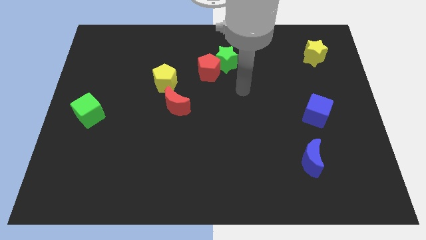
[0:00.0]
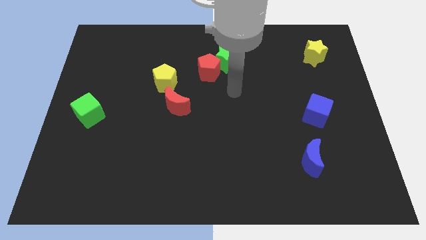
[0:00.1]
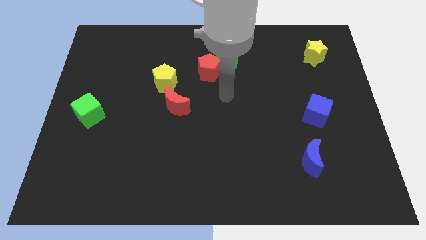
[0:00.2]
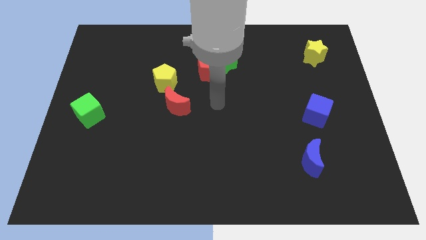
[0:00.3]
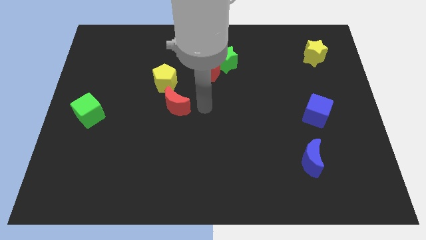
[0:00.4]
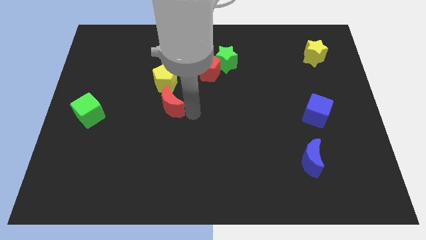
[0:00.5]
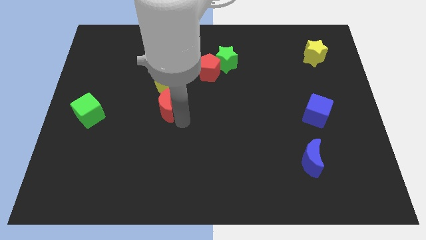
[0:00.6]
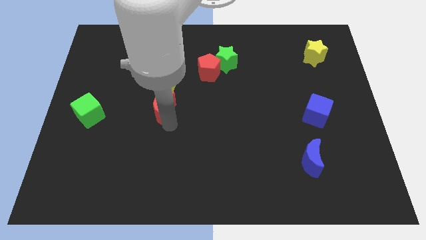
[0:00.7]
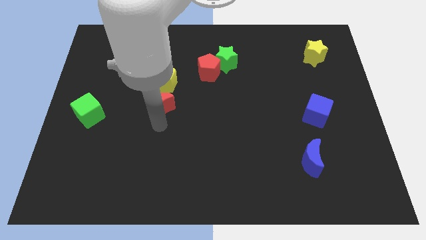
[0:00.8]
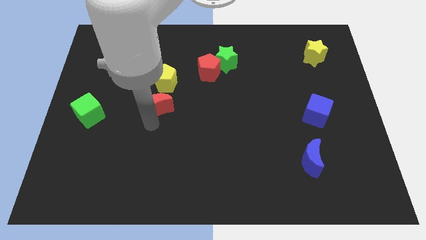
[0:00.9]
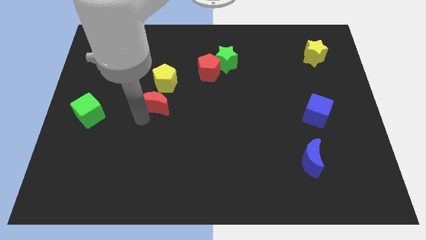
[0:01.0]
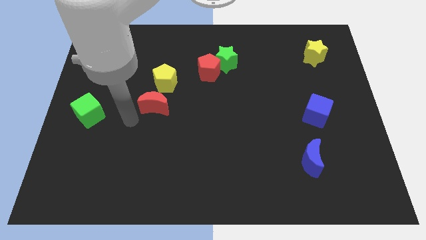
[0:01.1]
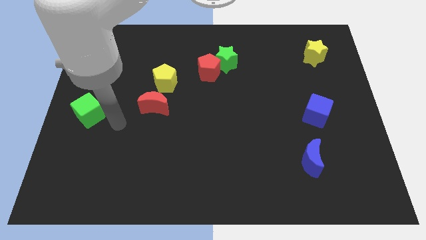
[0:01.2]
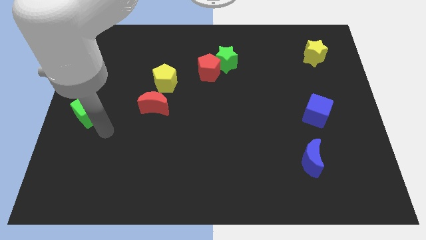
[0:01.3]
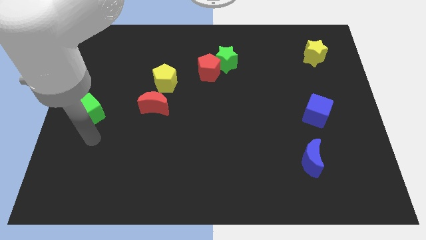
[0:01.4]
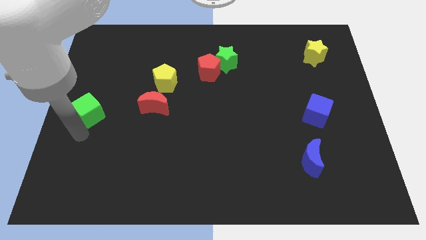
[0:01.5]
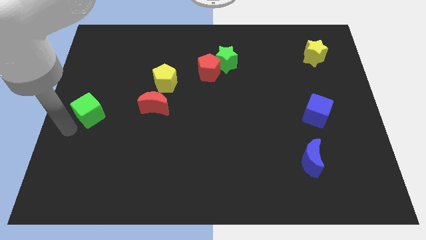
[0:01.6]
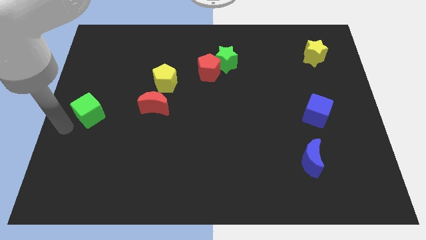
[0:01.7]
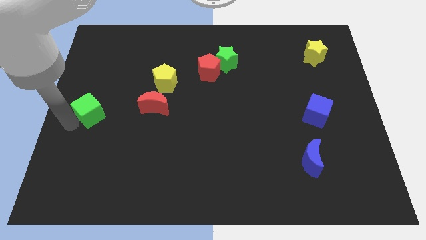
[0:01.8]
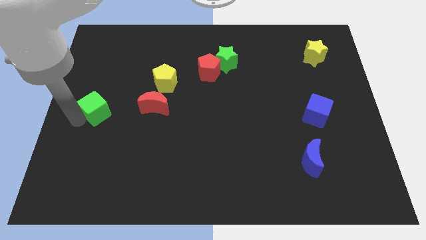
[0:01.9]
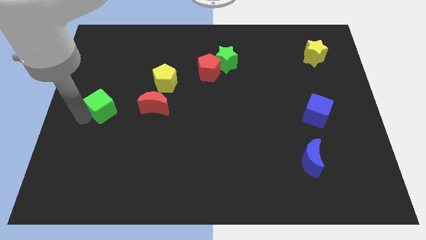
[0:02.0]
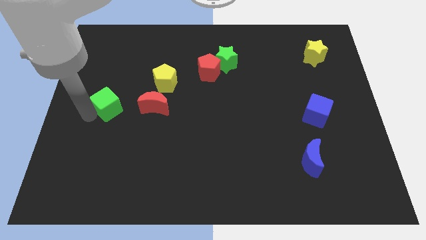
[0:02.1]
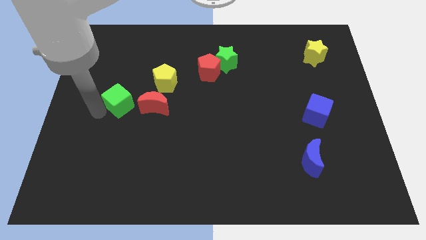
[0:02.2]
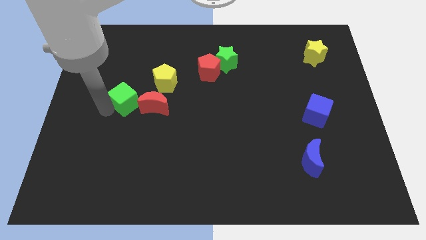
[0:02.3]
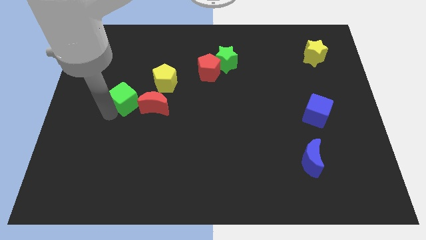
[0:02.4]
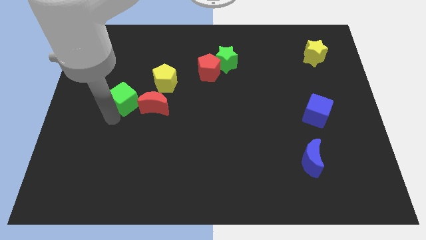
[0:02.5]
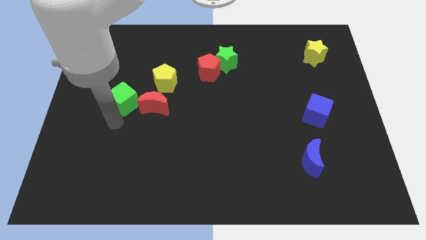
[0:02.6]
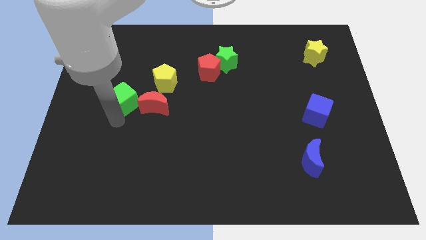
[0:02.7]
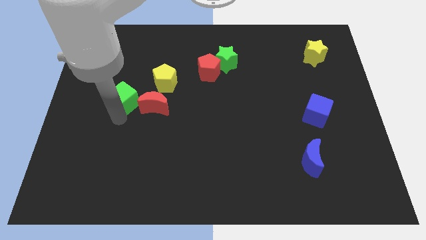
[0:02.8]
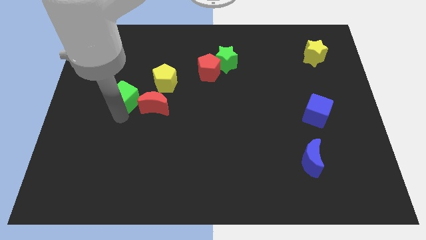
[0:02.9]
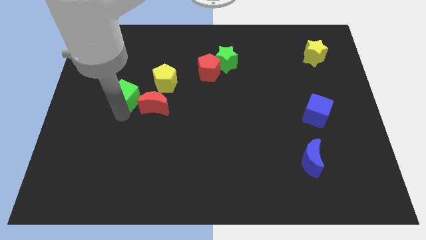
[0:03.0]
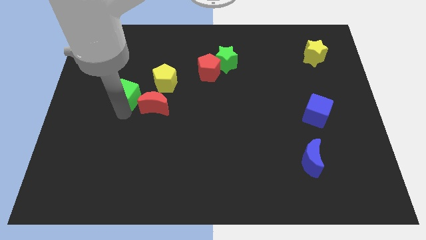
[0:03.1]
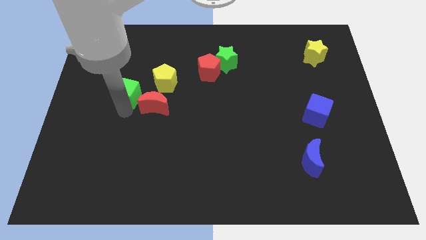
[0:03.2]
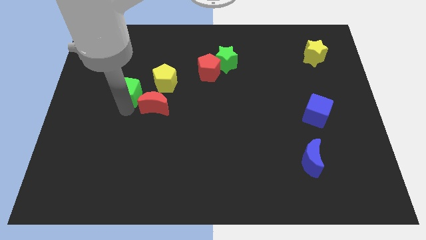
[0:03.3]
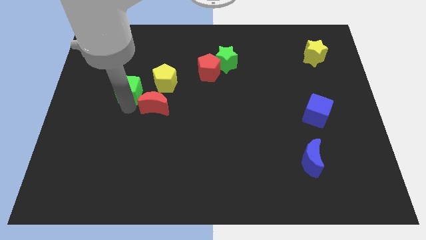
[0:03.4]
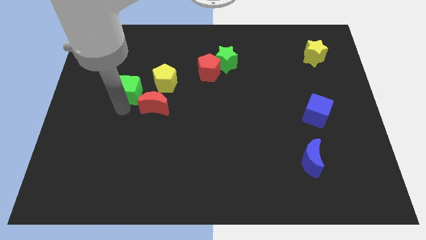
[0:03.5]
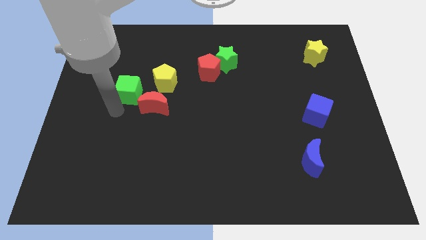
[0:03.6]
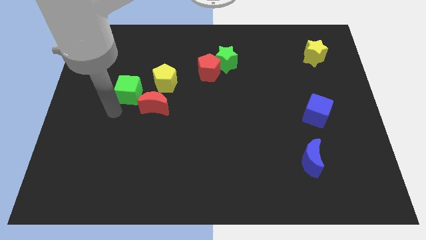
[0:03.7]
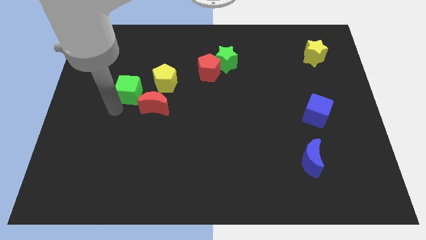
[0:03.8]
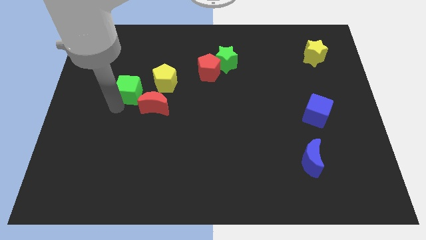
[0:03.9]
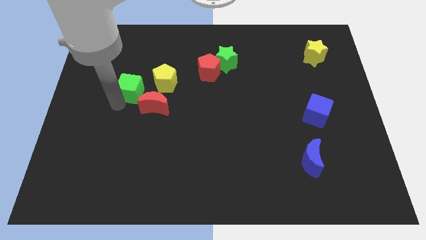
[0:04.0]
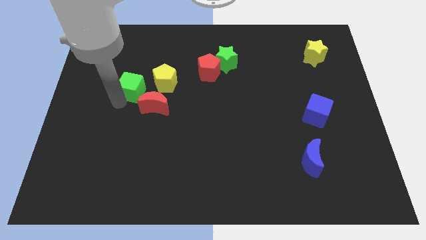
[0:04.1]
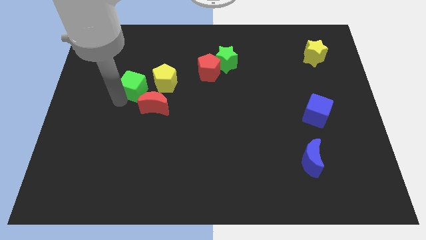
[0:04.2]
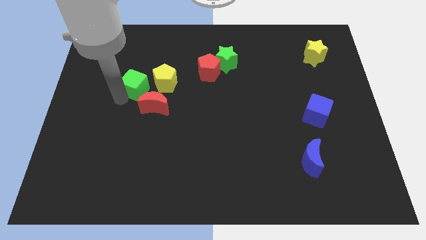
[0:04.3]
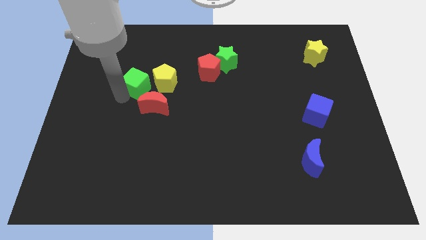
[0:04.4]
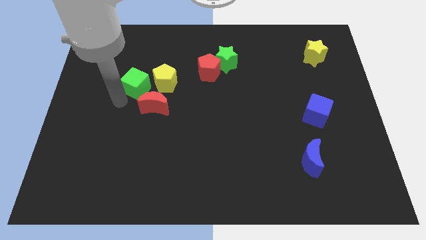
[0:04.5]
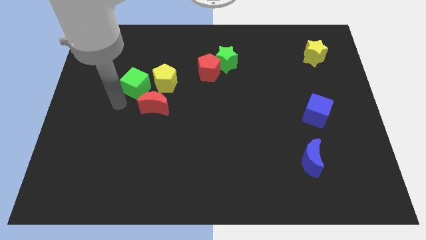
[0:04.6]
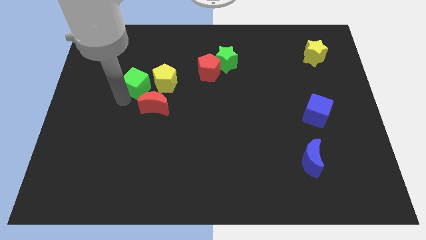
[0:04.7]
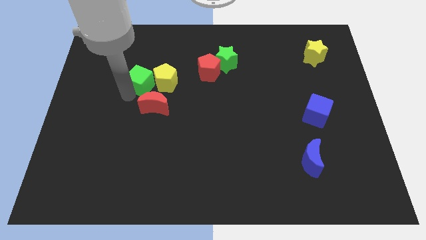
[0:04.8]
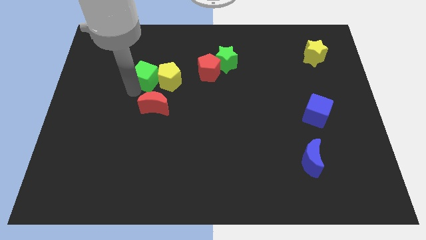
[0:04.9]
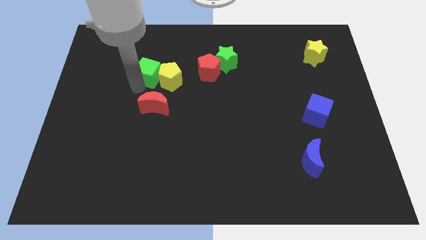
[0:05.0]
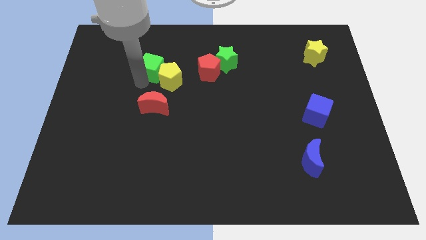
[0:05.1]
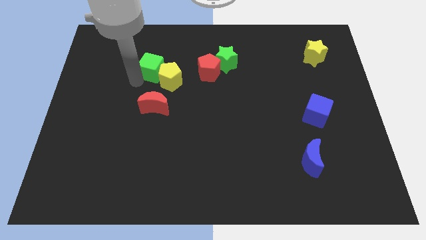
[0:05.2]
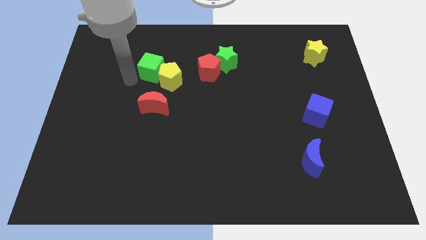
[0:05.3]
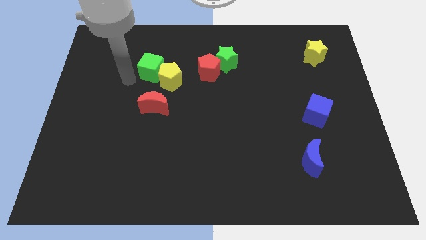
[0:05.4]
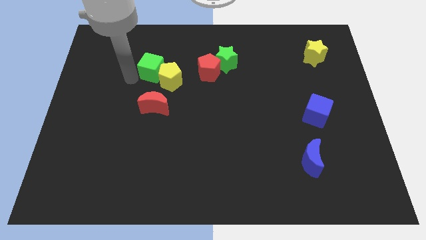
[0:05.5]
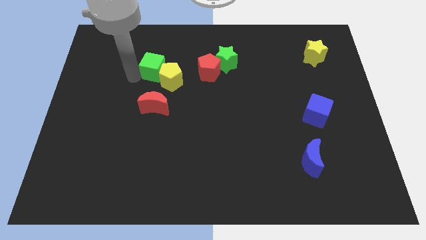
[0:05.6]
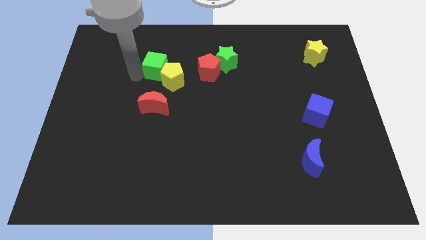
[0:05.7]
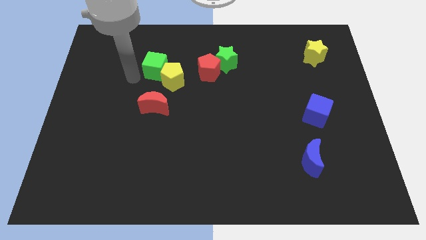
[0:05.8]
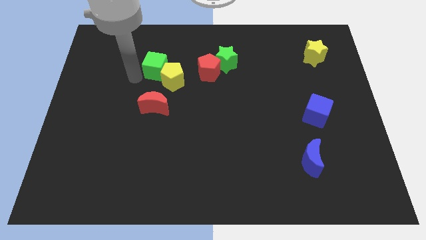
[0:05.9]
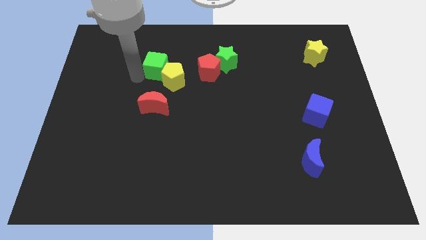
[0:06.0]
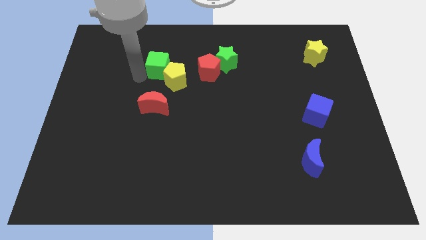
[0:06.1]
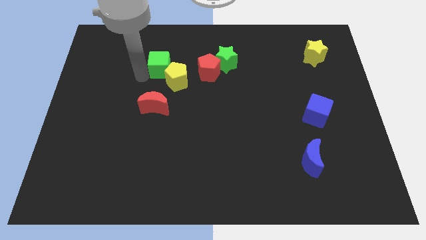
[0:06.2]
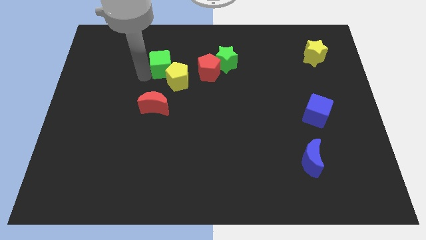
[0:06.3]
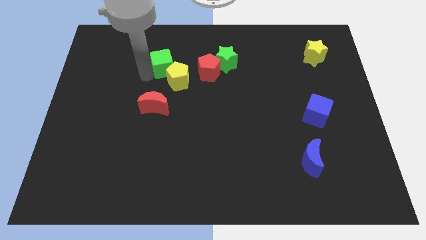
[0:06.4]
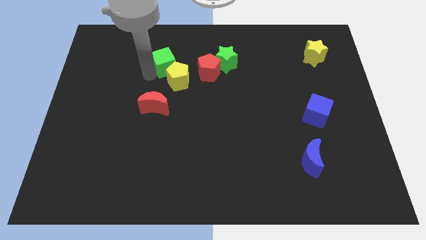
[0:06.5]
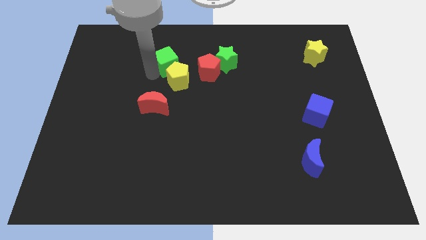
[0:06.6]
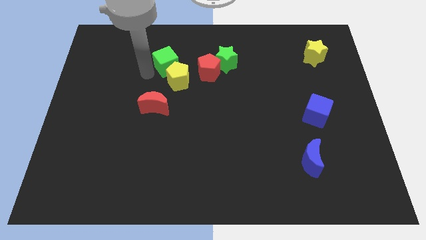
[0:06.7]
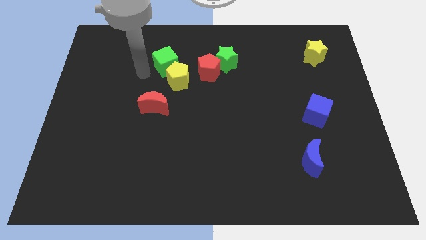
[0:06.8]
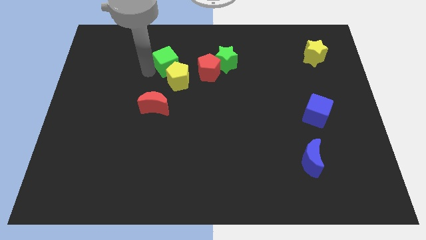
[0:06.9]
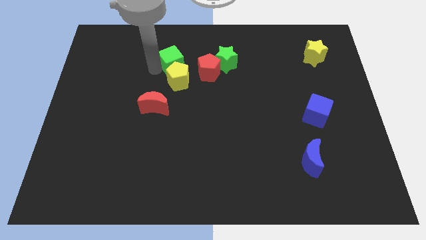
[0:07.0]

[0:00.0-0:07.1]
slide the green cube to the top left side of the red pentagon

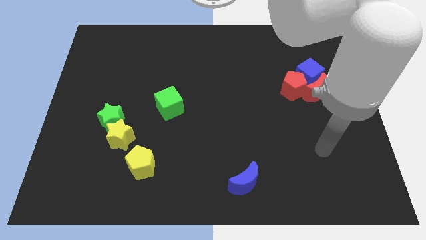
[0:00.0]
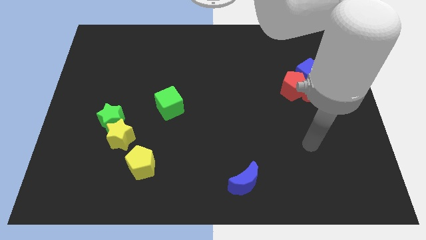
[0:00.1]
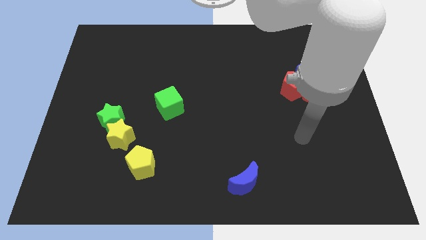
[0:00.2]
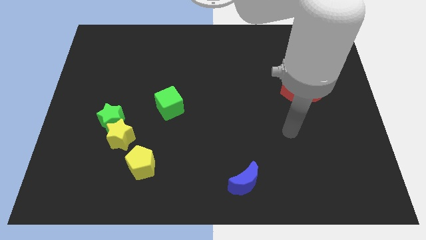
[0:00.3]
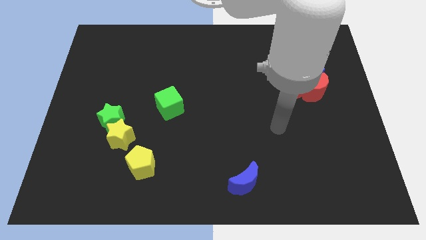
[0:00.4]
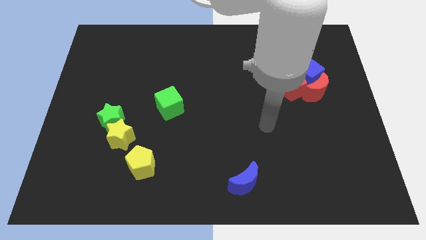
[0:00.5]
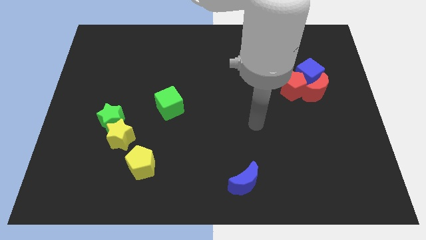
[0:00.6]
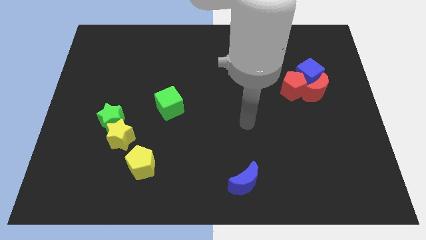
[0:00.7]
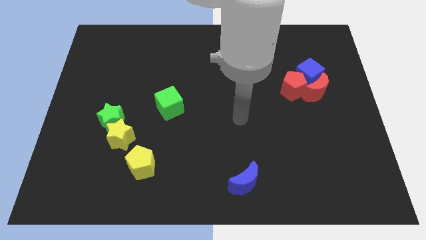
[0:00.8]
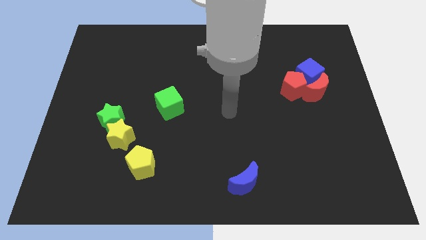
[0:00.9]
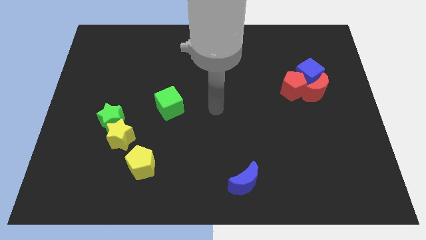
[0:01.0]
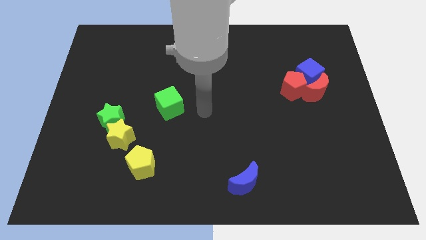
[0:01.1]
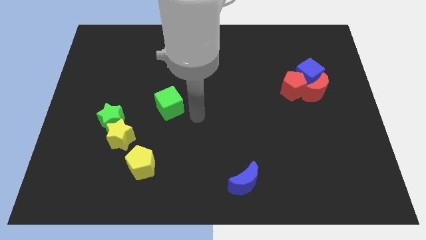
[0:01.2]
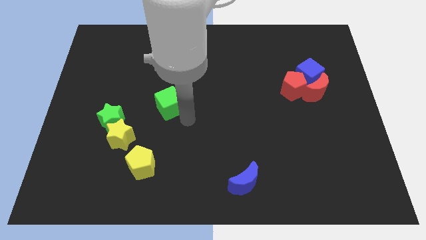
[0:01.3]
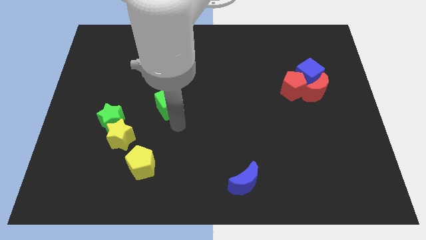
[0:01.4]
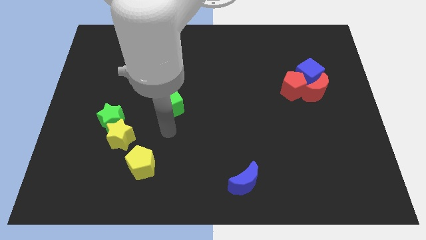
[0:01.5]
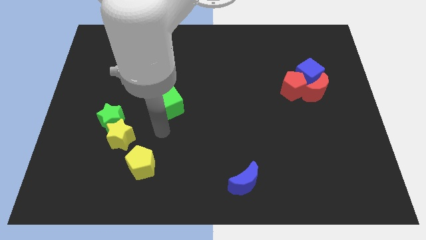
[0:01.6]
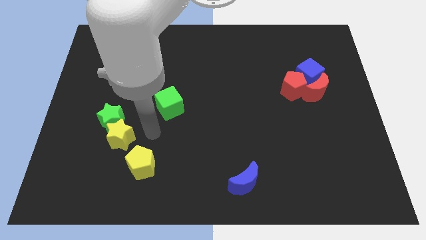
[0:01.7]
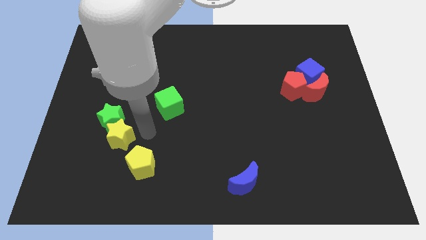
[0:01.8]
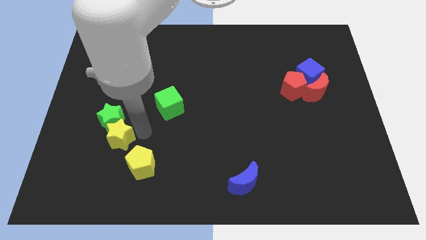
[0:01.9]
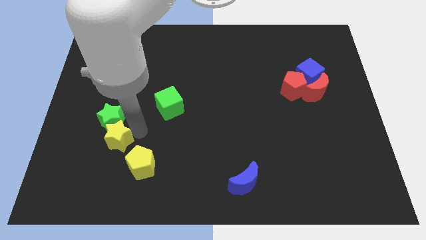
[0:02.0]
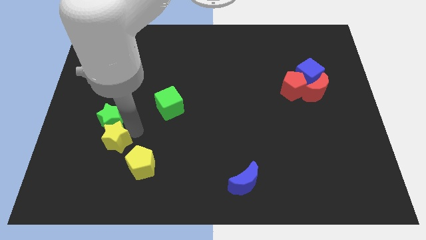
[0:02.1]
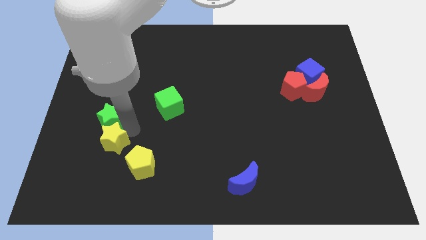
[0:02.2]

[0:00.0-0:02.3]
slide the yellow star to the bottom left side of the green star
